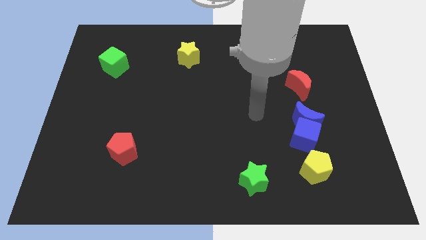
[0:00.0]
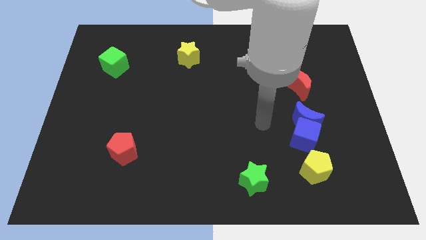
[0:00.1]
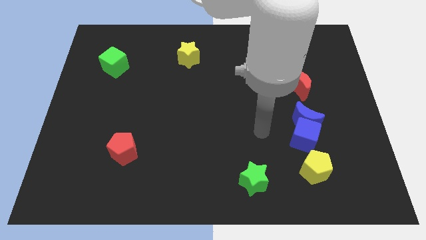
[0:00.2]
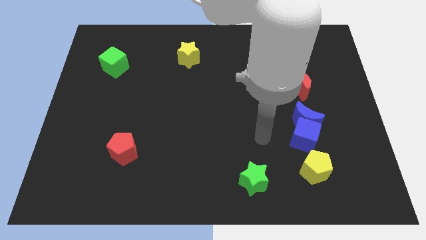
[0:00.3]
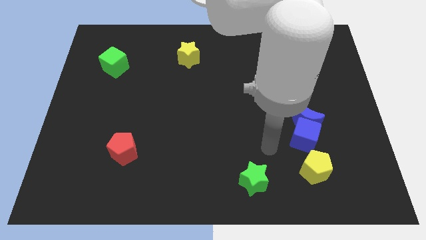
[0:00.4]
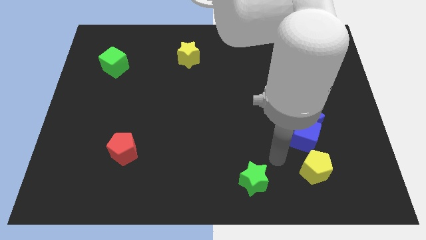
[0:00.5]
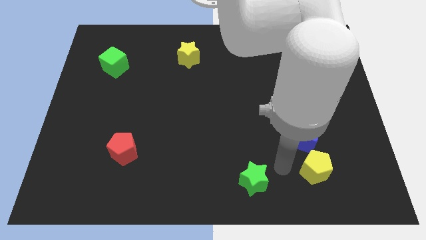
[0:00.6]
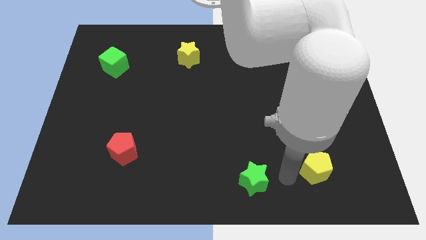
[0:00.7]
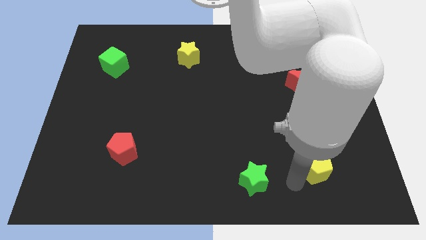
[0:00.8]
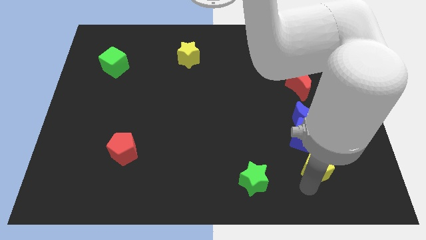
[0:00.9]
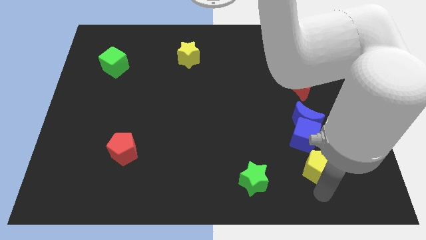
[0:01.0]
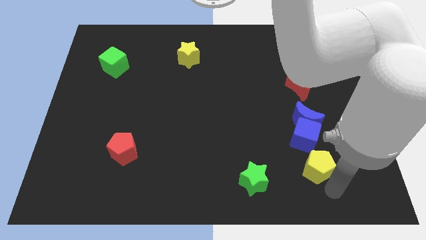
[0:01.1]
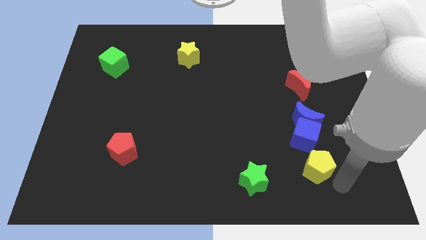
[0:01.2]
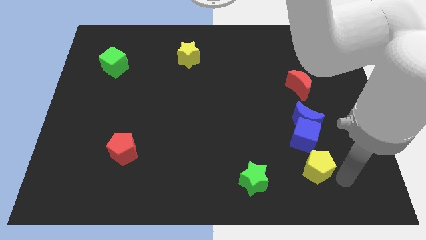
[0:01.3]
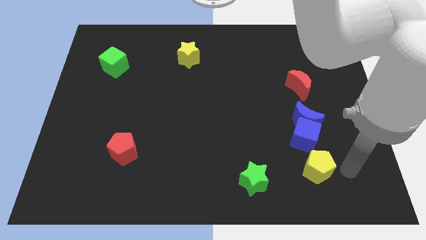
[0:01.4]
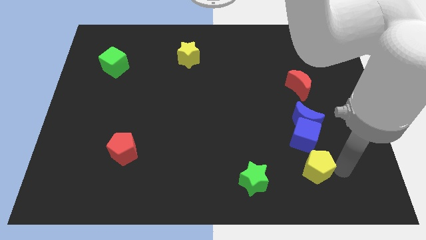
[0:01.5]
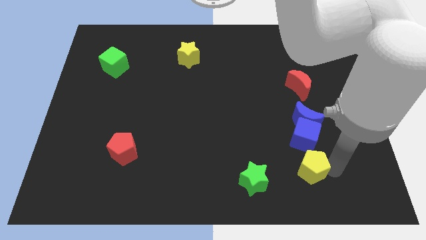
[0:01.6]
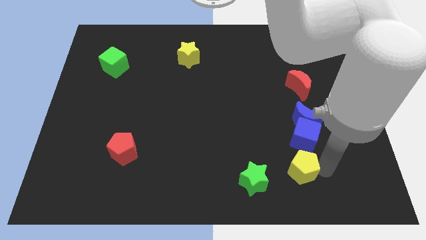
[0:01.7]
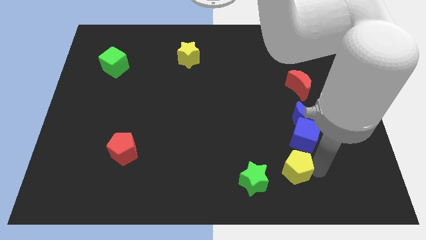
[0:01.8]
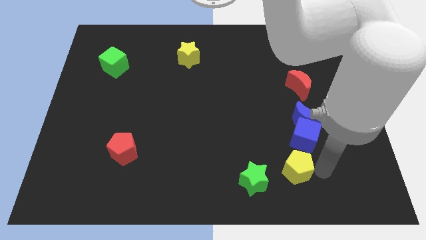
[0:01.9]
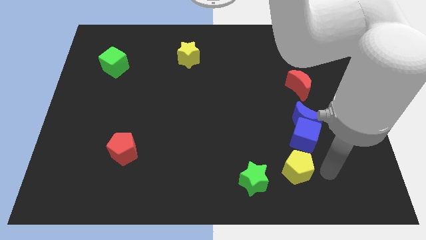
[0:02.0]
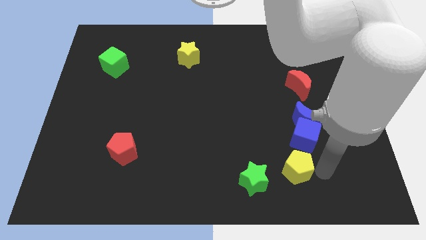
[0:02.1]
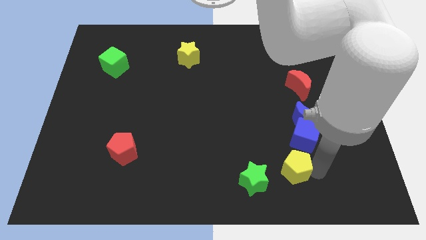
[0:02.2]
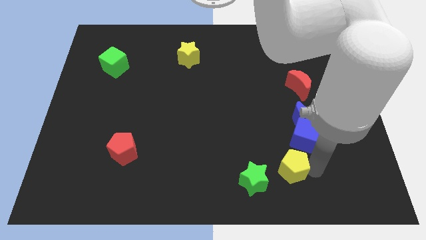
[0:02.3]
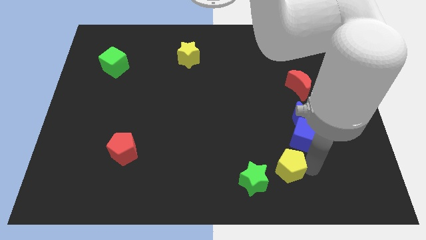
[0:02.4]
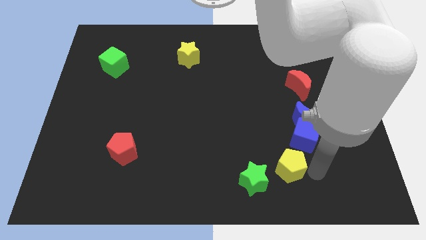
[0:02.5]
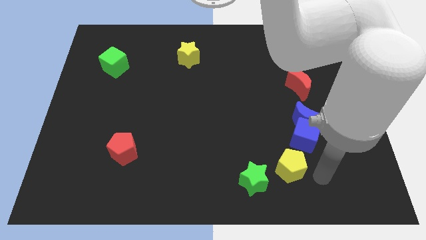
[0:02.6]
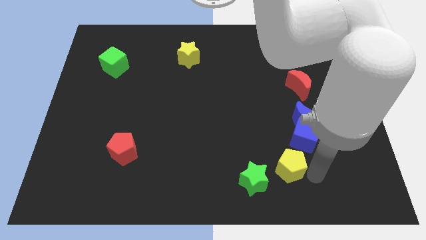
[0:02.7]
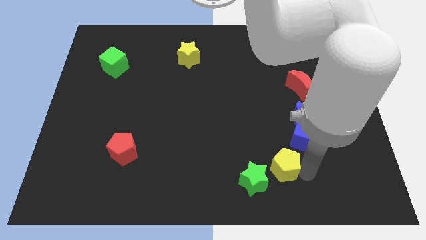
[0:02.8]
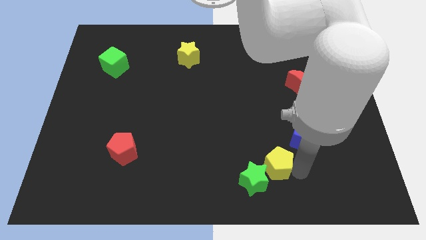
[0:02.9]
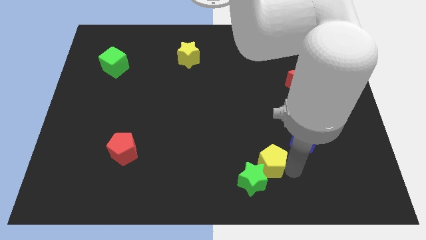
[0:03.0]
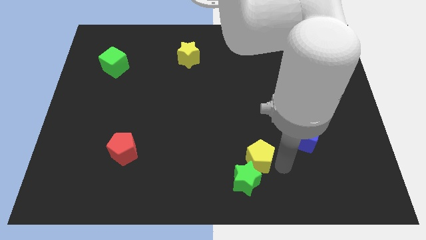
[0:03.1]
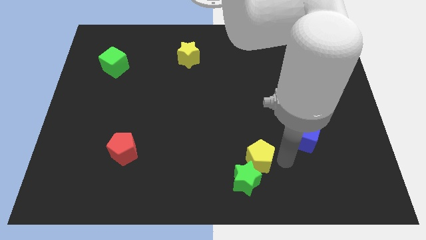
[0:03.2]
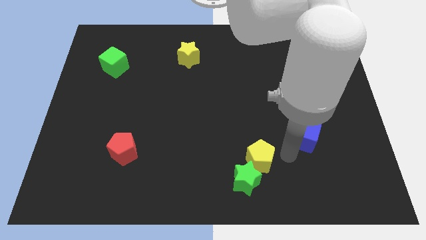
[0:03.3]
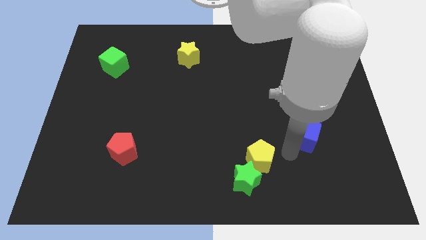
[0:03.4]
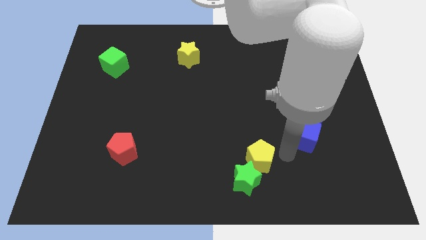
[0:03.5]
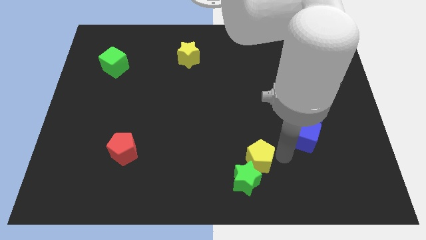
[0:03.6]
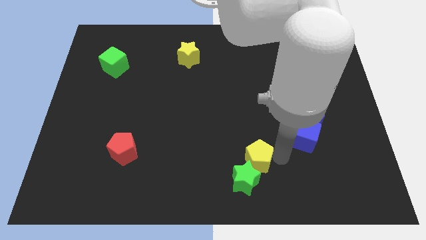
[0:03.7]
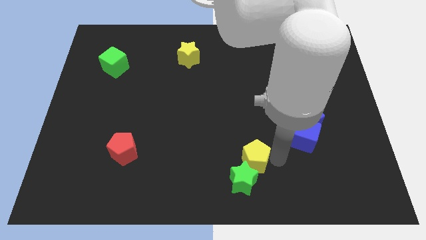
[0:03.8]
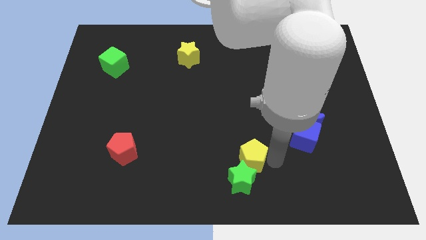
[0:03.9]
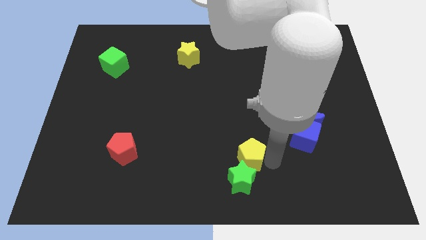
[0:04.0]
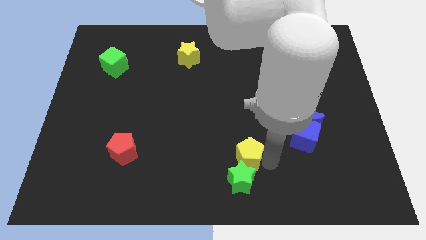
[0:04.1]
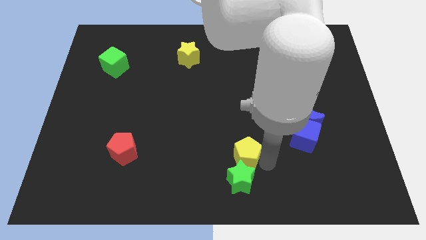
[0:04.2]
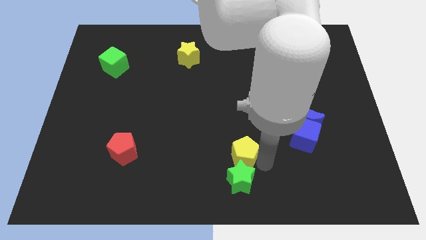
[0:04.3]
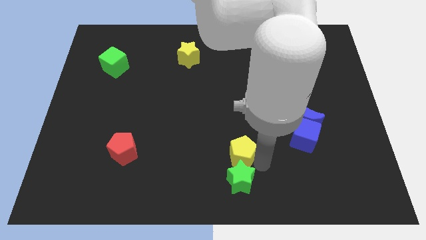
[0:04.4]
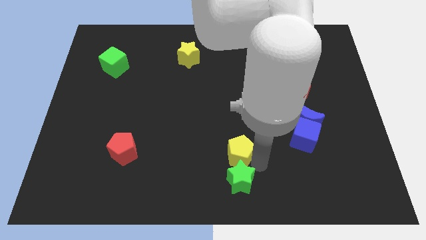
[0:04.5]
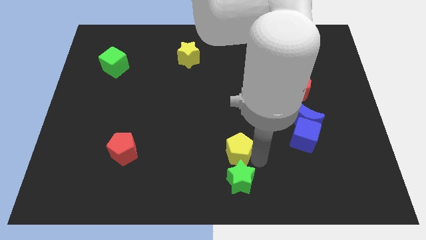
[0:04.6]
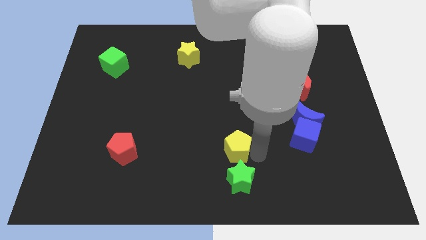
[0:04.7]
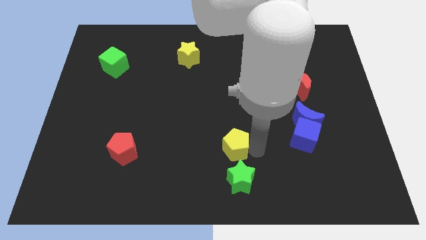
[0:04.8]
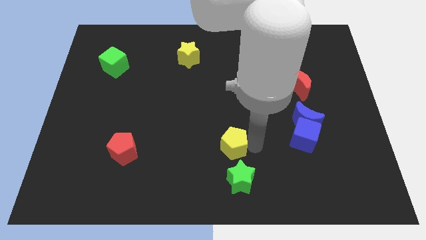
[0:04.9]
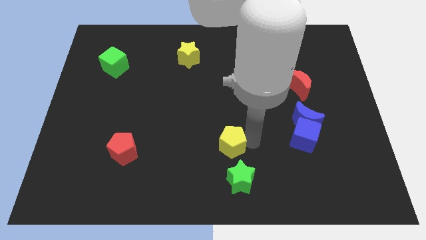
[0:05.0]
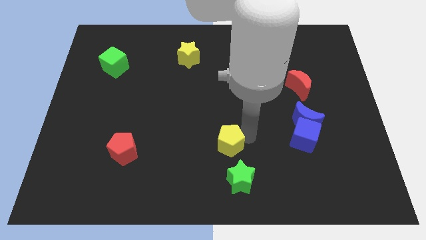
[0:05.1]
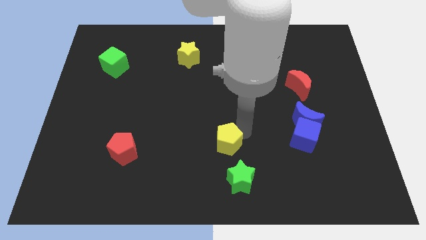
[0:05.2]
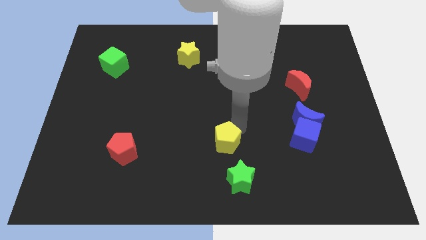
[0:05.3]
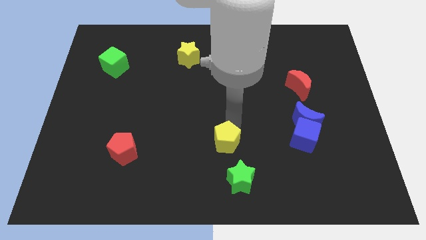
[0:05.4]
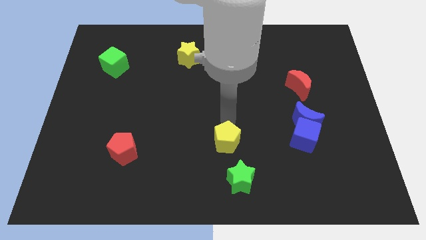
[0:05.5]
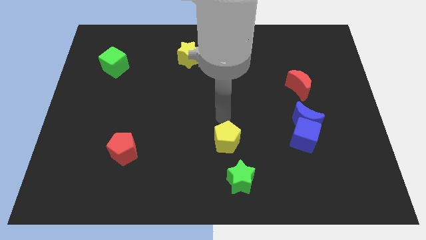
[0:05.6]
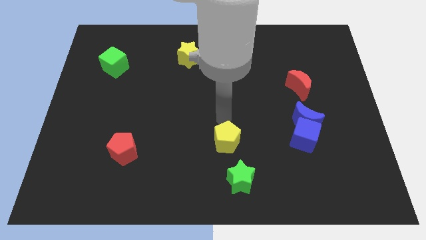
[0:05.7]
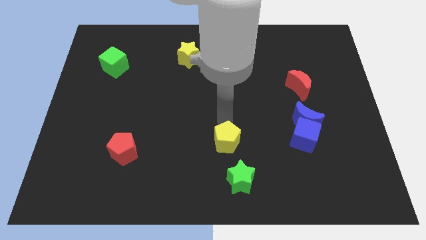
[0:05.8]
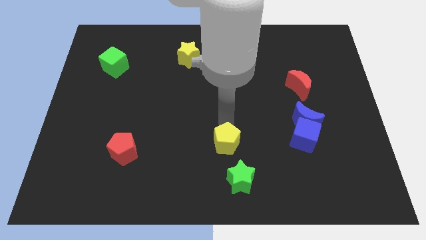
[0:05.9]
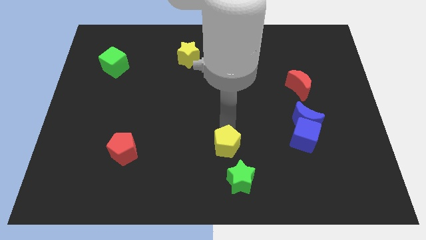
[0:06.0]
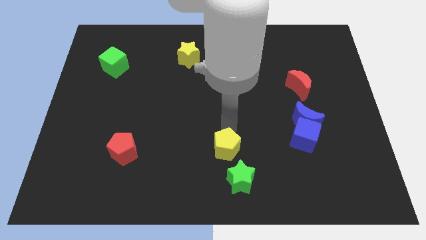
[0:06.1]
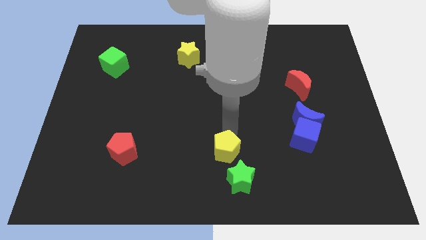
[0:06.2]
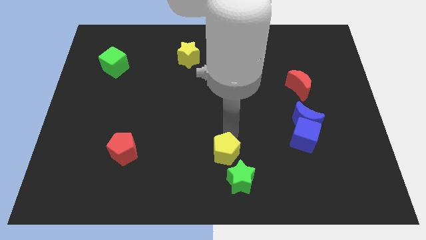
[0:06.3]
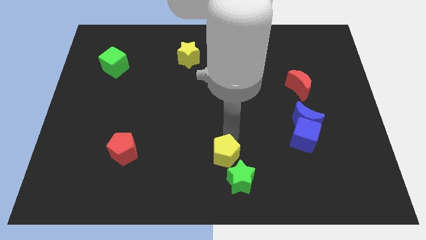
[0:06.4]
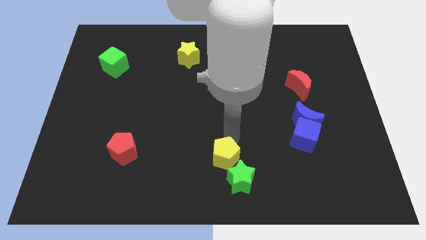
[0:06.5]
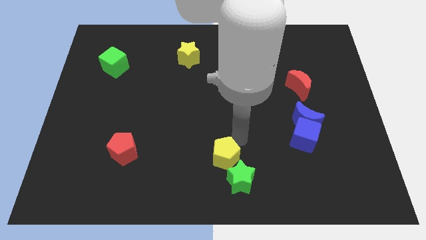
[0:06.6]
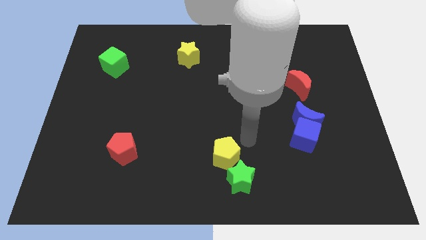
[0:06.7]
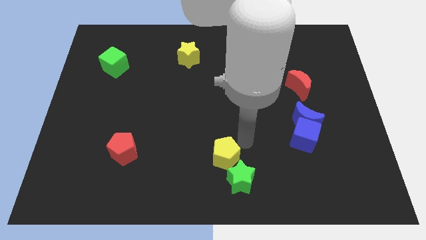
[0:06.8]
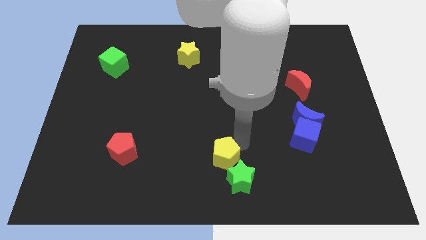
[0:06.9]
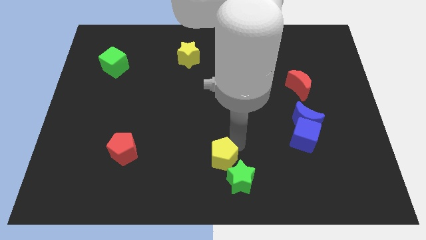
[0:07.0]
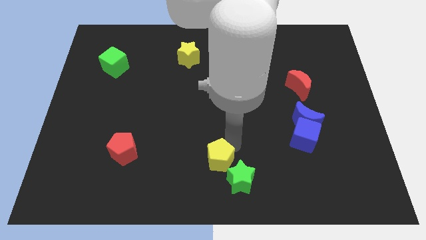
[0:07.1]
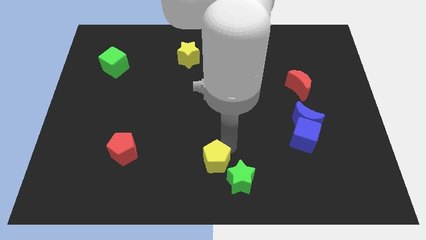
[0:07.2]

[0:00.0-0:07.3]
move the yellow pentagon to the left side of the green star

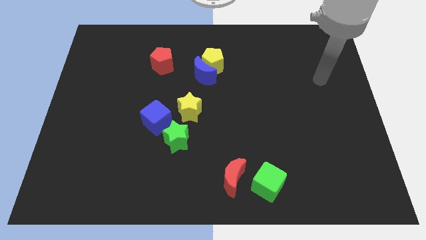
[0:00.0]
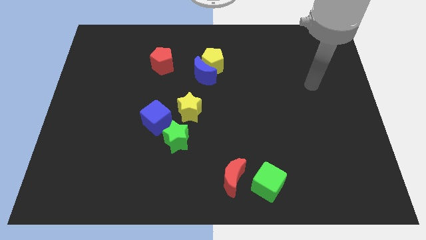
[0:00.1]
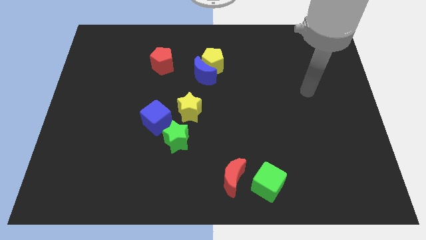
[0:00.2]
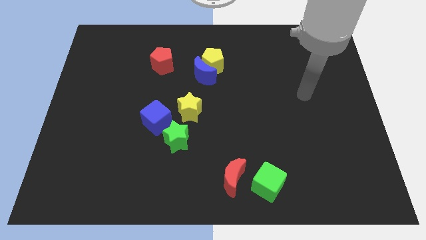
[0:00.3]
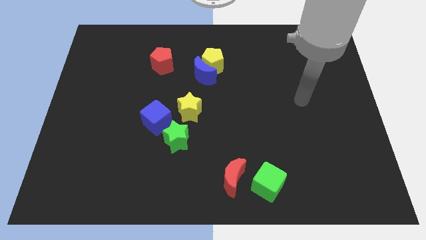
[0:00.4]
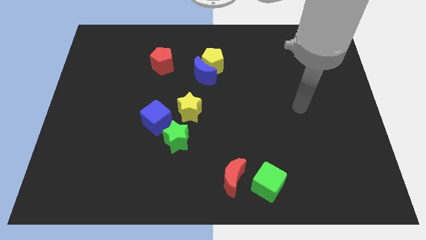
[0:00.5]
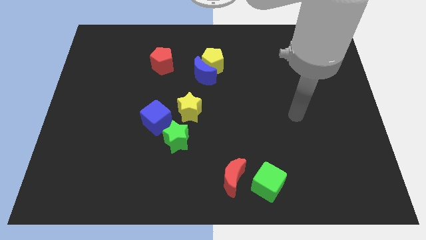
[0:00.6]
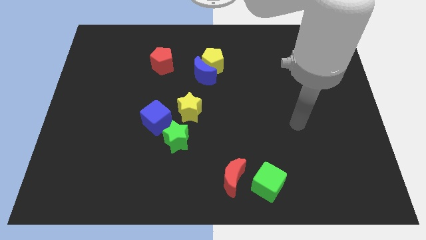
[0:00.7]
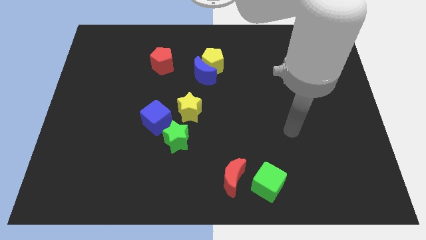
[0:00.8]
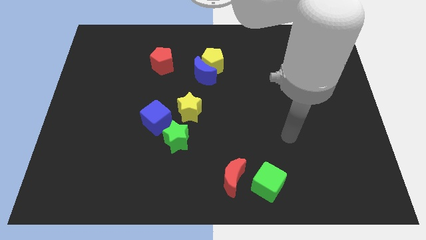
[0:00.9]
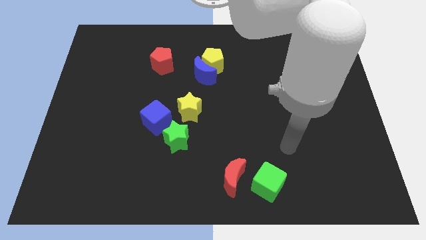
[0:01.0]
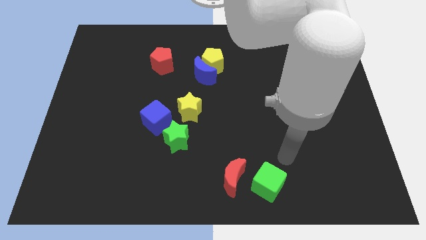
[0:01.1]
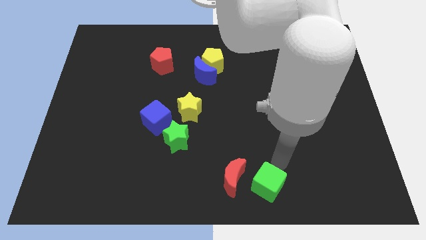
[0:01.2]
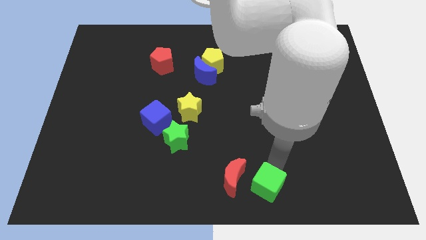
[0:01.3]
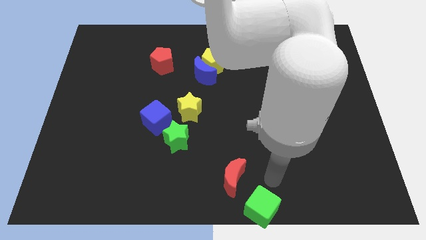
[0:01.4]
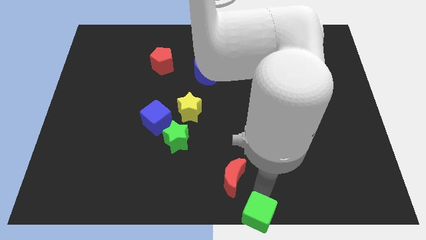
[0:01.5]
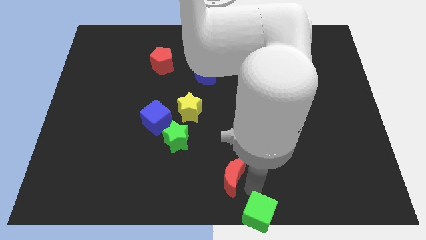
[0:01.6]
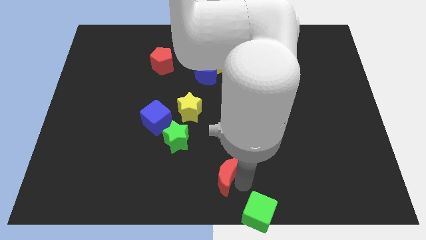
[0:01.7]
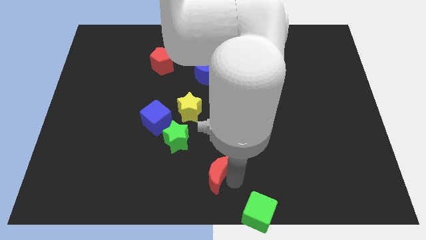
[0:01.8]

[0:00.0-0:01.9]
push the red moon to the bottom right of the green star
